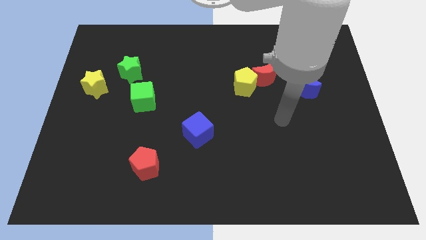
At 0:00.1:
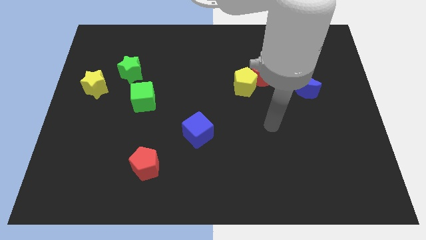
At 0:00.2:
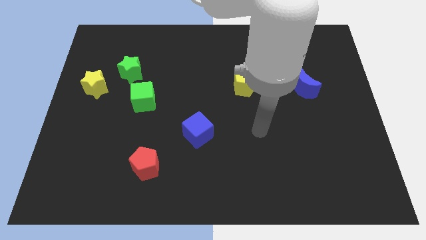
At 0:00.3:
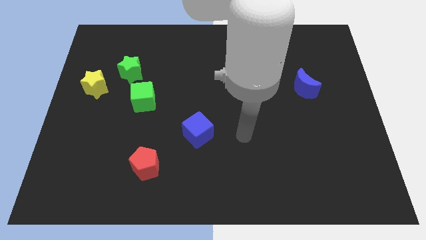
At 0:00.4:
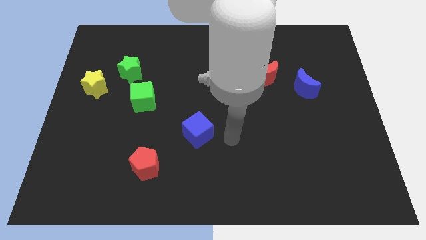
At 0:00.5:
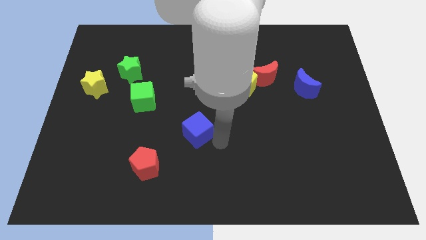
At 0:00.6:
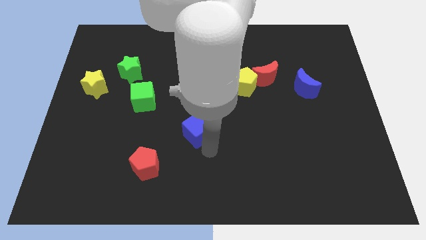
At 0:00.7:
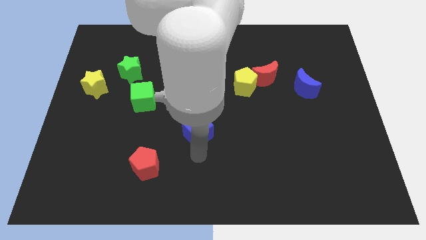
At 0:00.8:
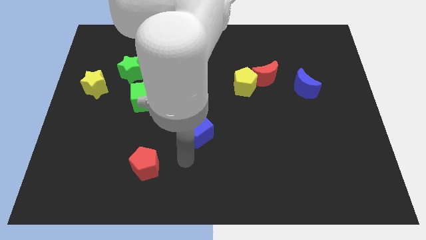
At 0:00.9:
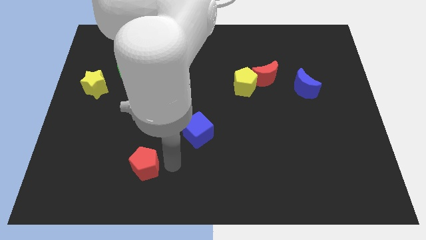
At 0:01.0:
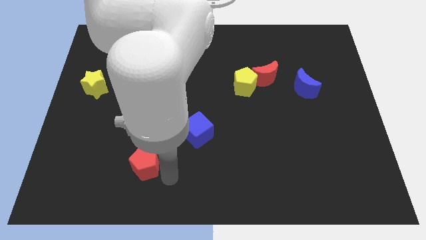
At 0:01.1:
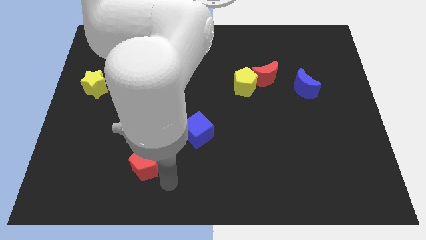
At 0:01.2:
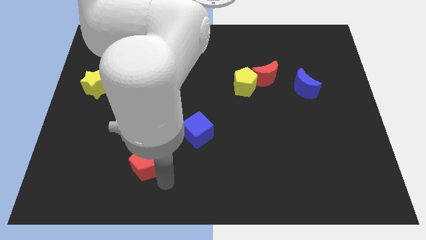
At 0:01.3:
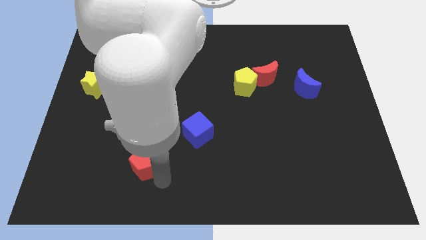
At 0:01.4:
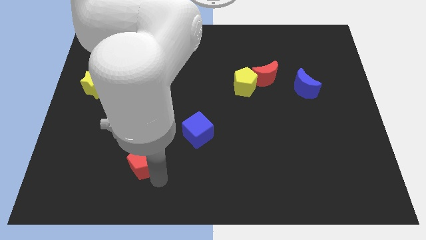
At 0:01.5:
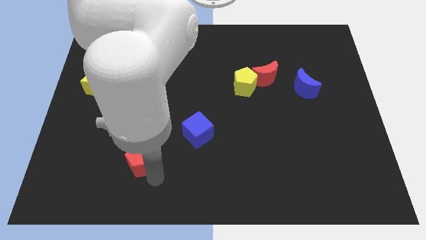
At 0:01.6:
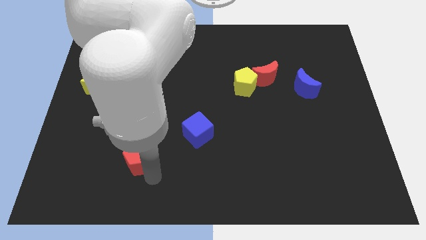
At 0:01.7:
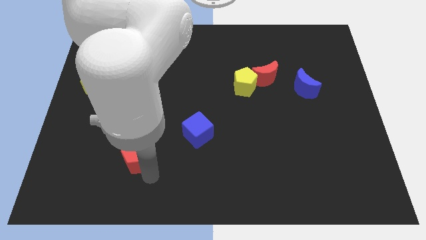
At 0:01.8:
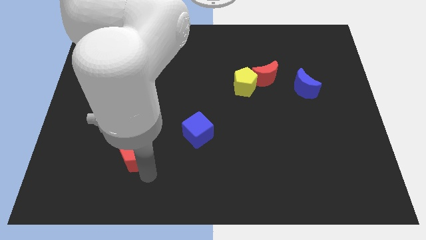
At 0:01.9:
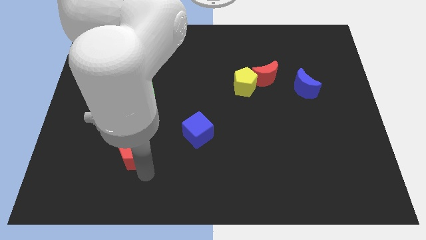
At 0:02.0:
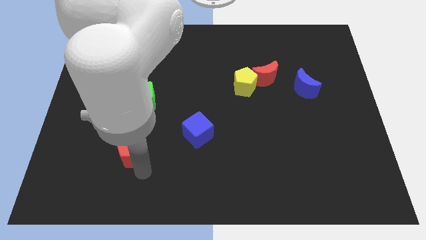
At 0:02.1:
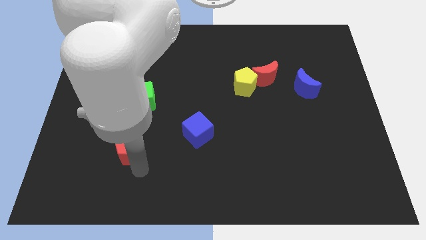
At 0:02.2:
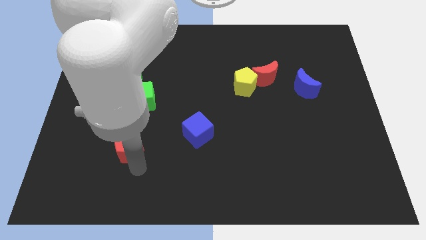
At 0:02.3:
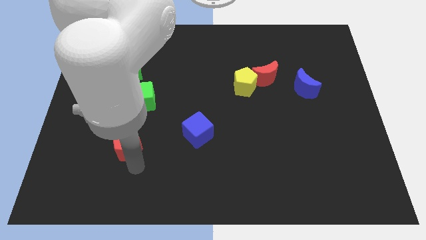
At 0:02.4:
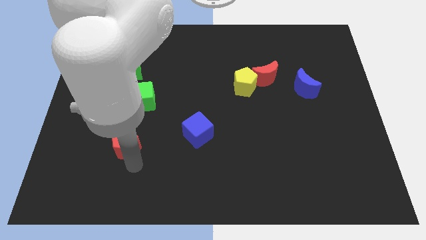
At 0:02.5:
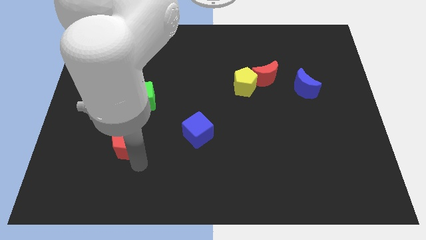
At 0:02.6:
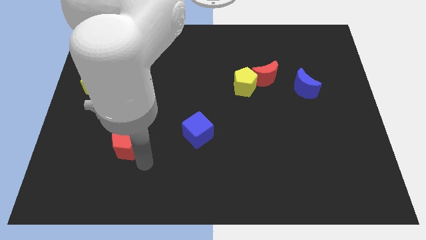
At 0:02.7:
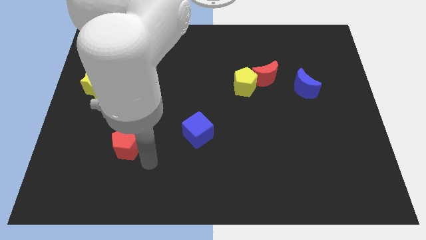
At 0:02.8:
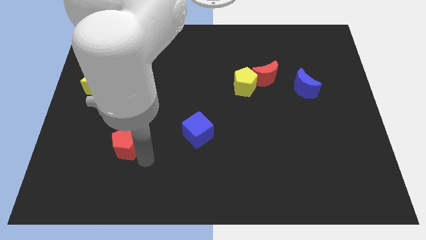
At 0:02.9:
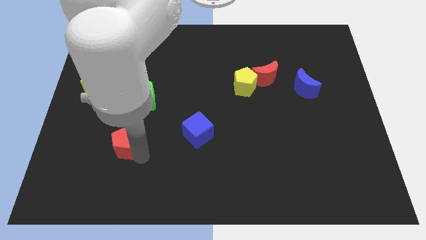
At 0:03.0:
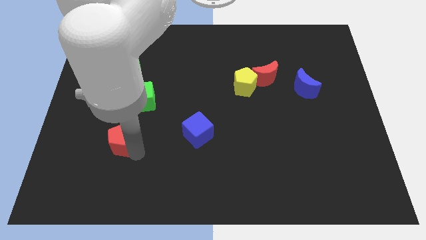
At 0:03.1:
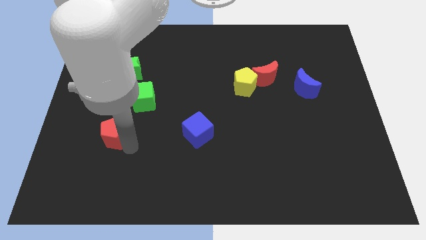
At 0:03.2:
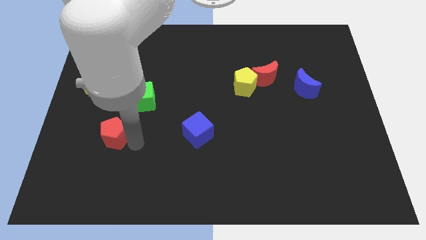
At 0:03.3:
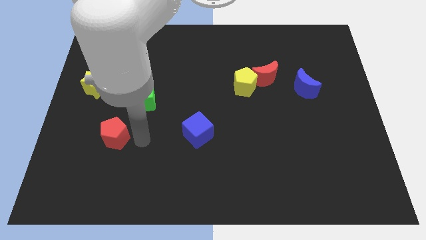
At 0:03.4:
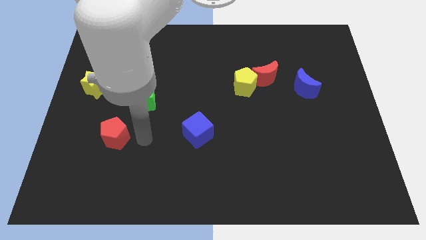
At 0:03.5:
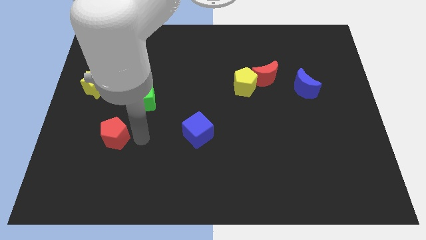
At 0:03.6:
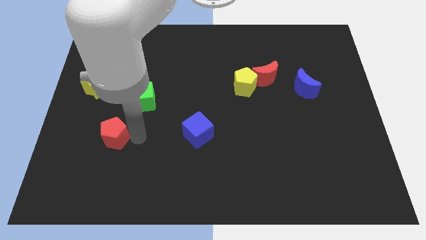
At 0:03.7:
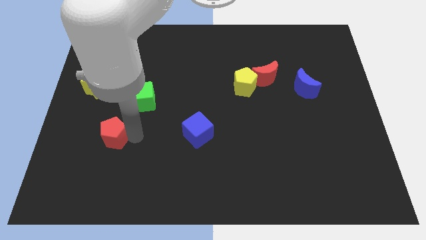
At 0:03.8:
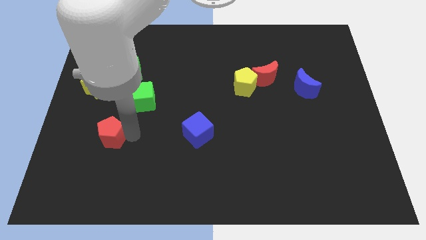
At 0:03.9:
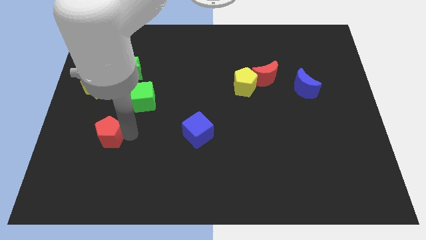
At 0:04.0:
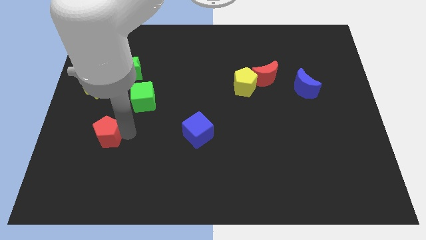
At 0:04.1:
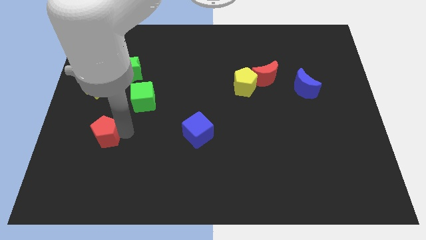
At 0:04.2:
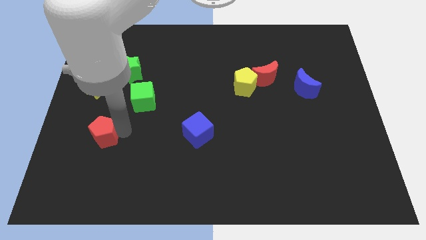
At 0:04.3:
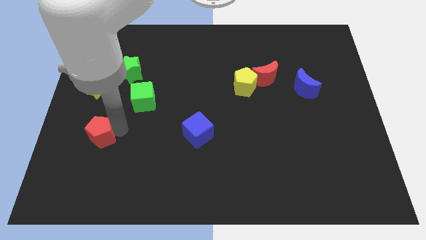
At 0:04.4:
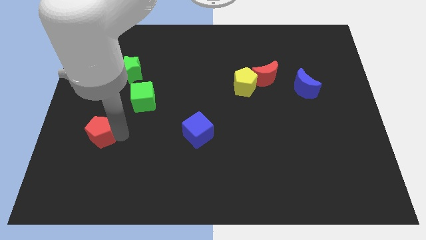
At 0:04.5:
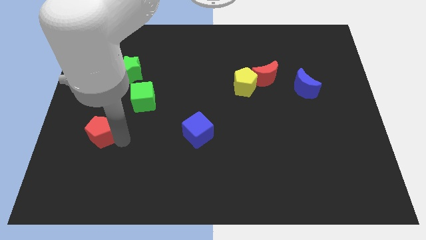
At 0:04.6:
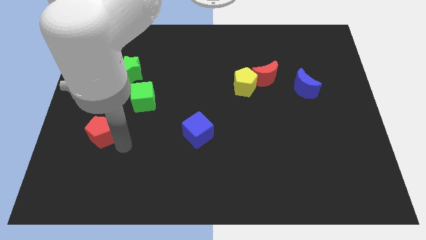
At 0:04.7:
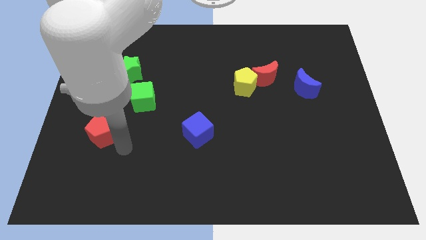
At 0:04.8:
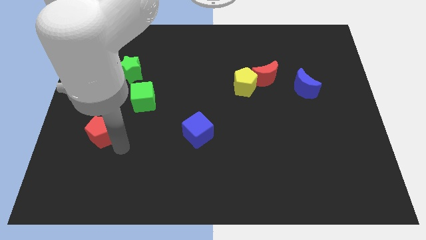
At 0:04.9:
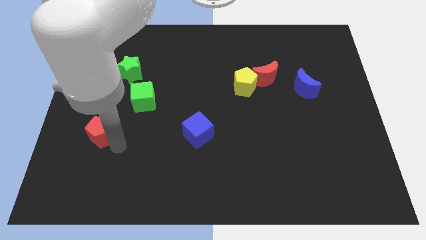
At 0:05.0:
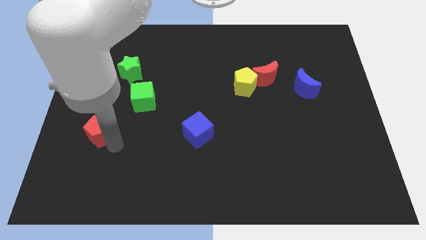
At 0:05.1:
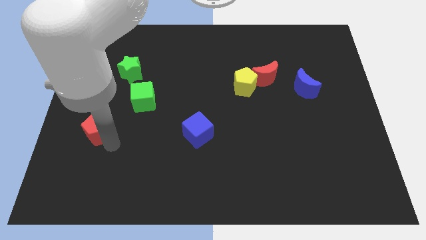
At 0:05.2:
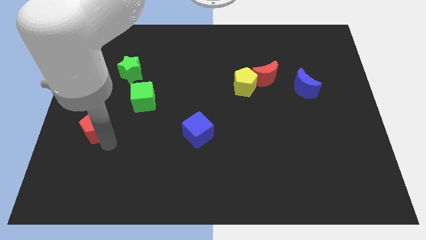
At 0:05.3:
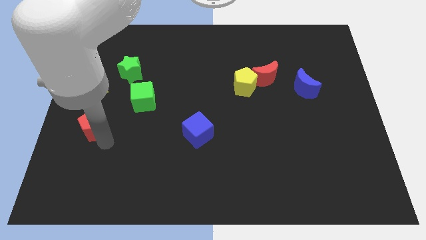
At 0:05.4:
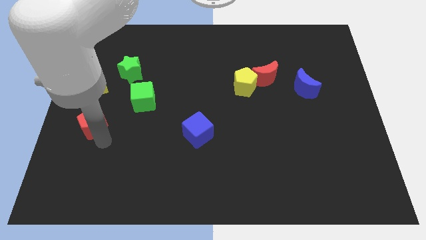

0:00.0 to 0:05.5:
push the red pentagon to the left side
